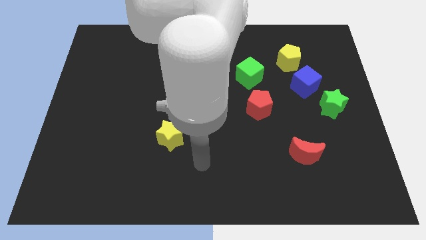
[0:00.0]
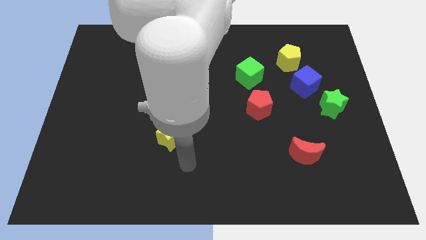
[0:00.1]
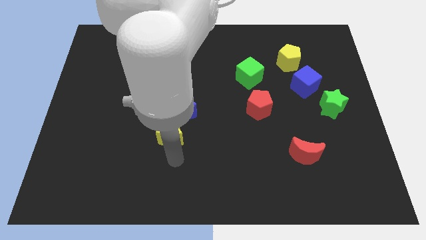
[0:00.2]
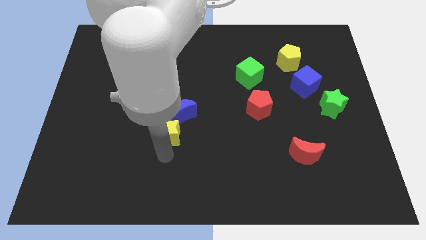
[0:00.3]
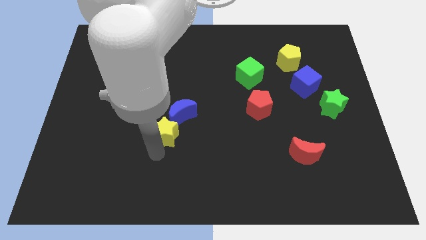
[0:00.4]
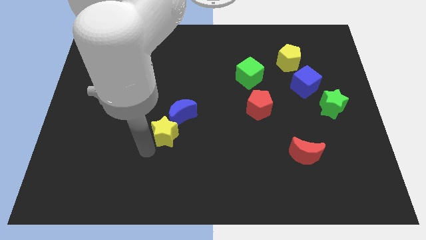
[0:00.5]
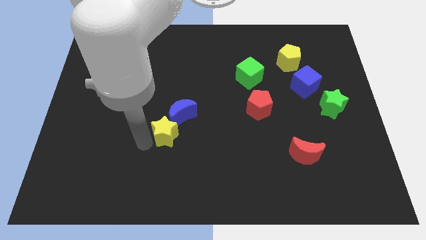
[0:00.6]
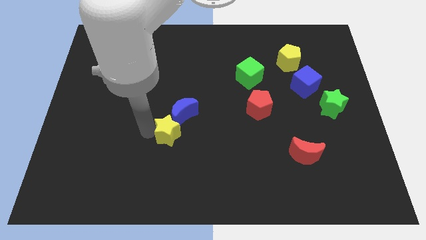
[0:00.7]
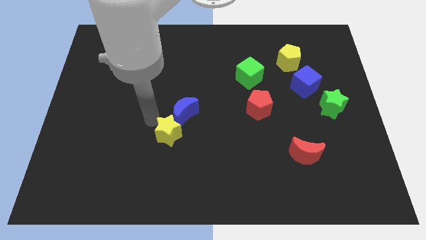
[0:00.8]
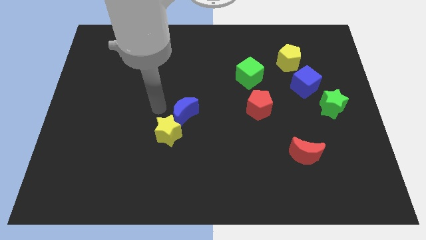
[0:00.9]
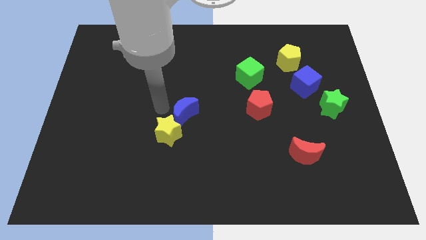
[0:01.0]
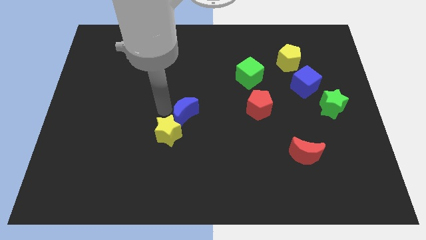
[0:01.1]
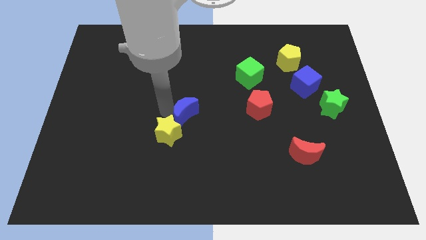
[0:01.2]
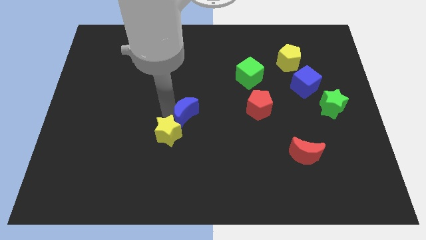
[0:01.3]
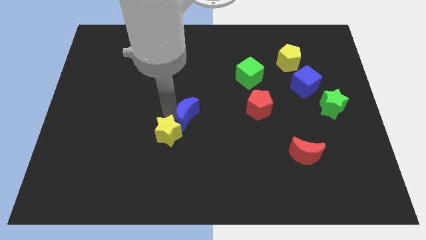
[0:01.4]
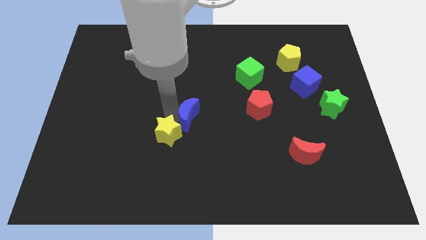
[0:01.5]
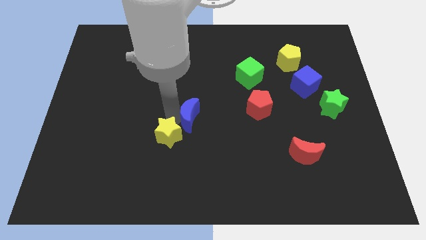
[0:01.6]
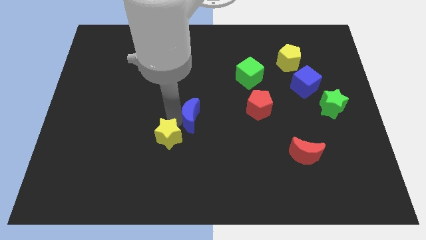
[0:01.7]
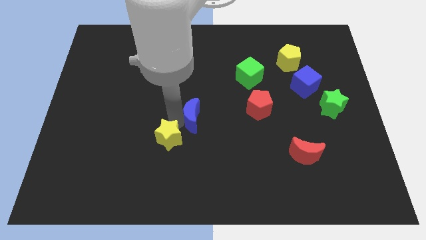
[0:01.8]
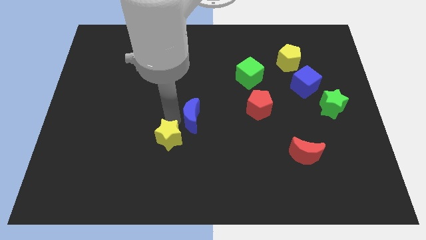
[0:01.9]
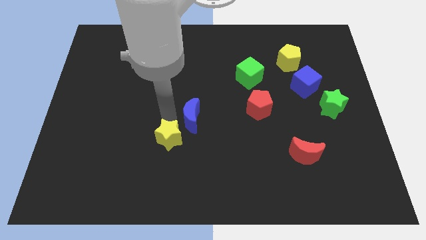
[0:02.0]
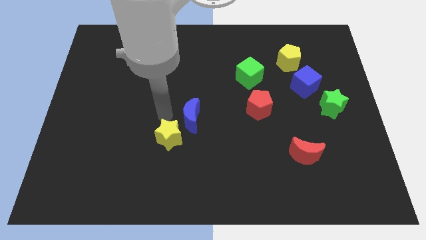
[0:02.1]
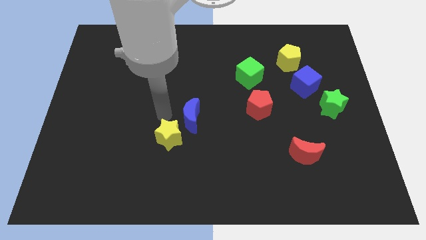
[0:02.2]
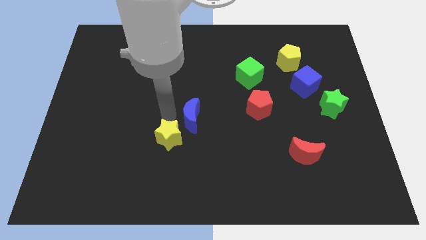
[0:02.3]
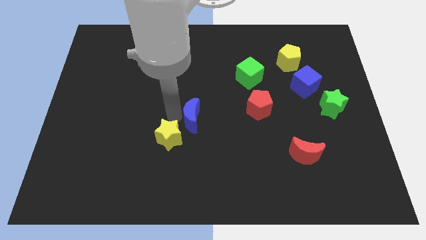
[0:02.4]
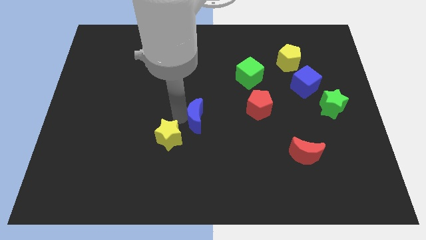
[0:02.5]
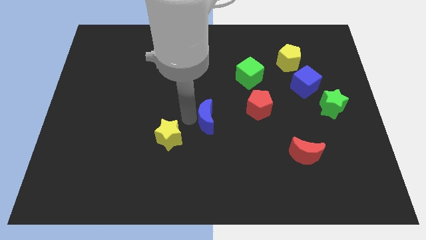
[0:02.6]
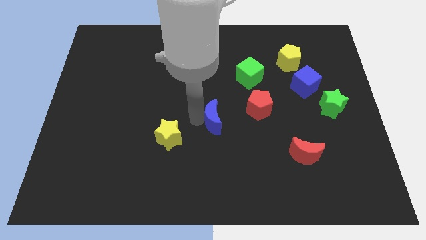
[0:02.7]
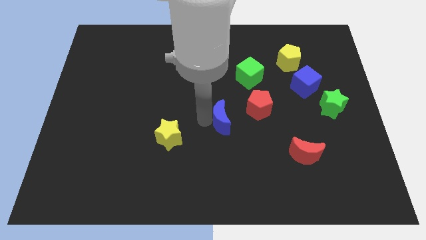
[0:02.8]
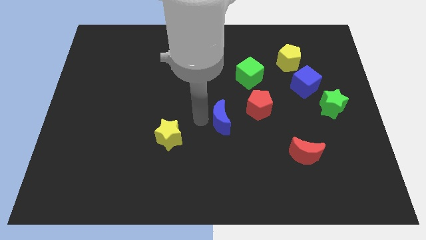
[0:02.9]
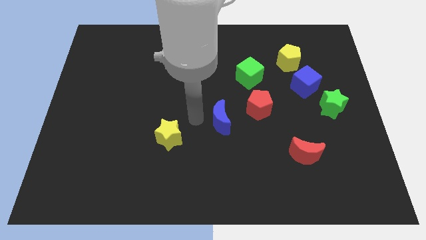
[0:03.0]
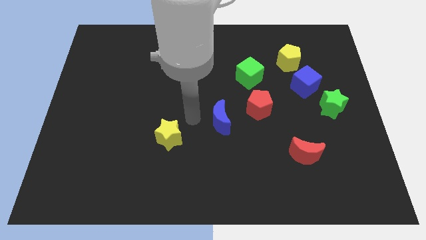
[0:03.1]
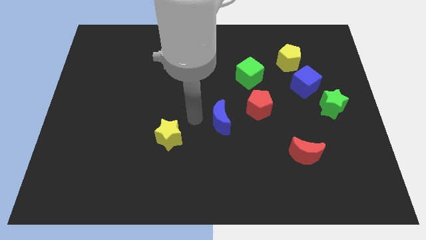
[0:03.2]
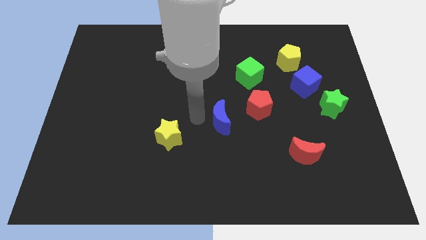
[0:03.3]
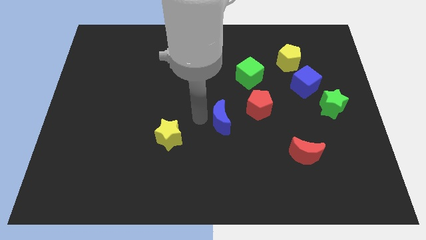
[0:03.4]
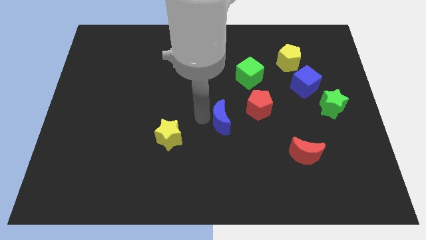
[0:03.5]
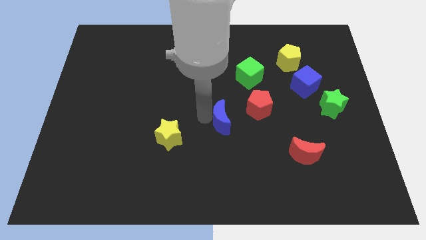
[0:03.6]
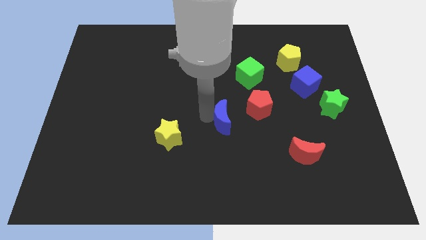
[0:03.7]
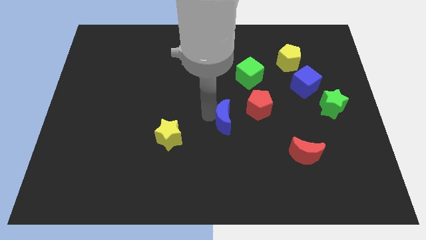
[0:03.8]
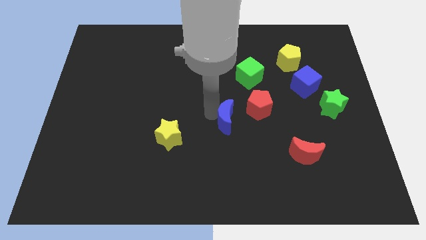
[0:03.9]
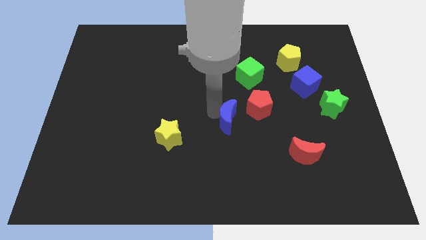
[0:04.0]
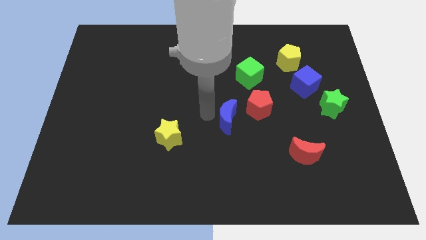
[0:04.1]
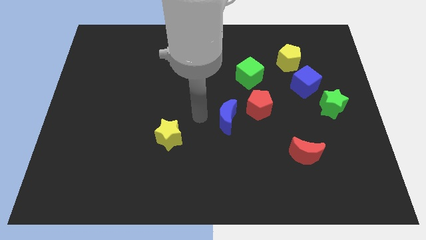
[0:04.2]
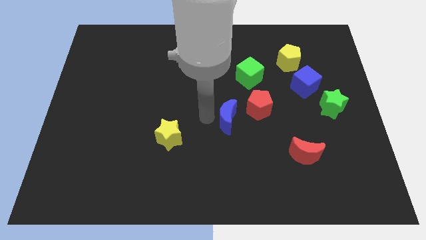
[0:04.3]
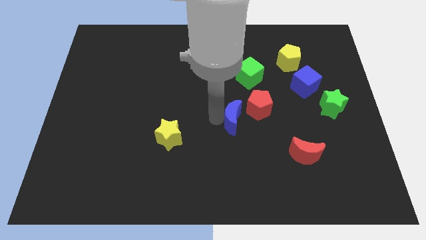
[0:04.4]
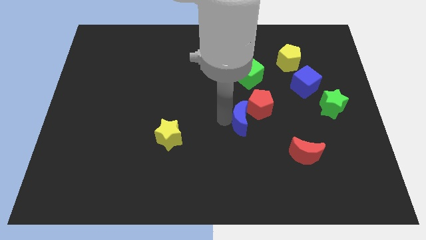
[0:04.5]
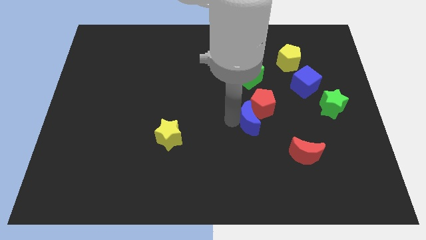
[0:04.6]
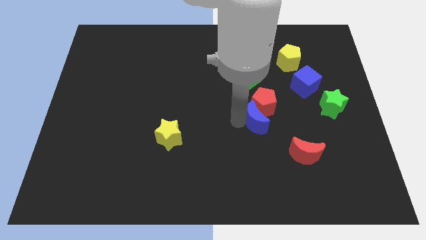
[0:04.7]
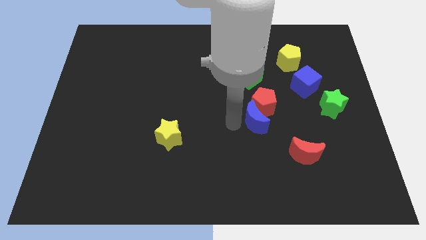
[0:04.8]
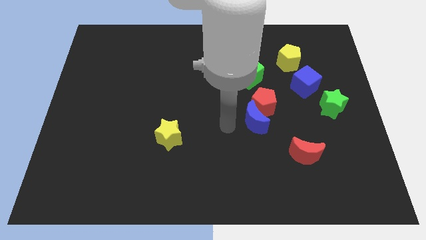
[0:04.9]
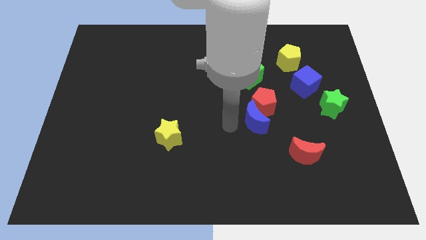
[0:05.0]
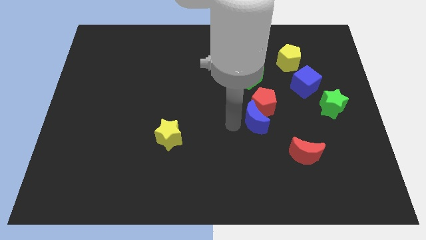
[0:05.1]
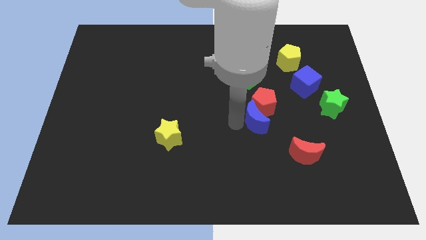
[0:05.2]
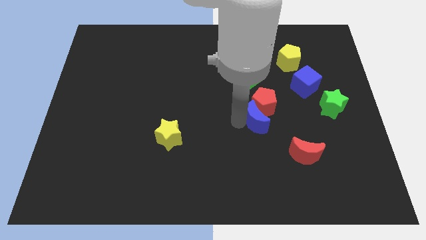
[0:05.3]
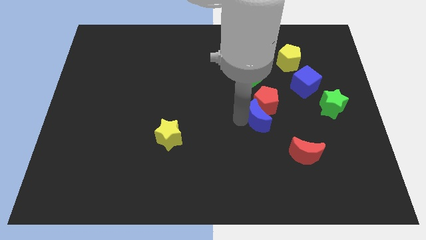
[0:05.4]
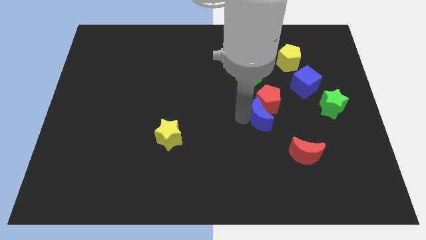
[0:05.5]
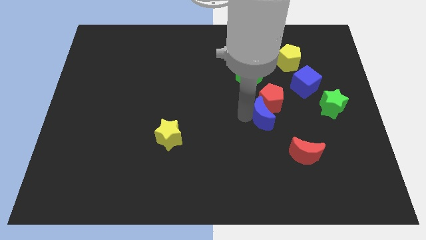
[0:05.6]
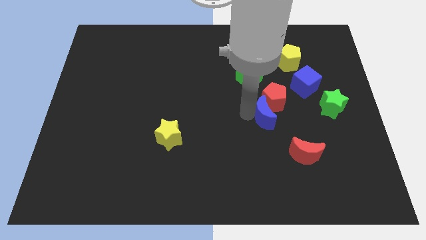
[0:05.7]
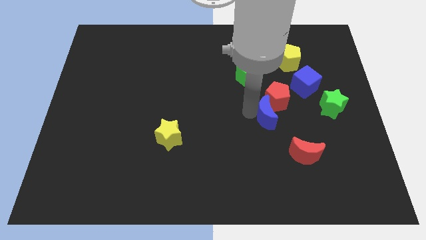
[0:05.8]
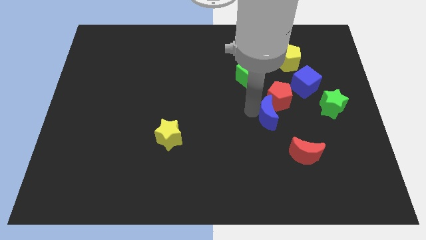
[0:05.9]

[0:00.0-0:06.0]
slide the blue moon right

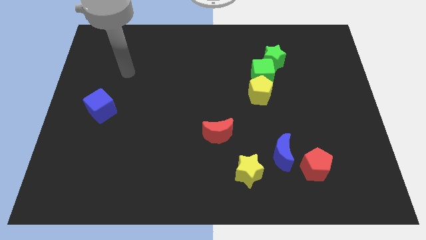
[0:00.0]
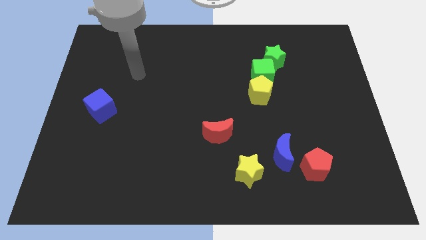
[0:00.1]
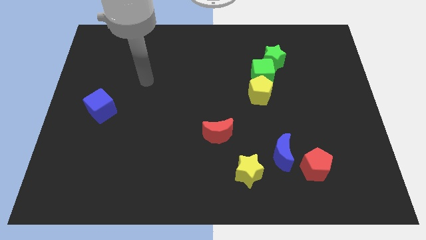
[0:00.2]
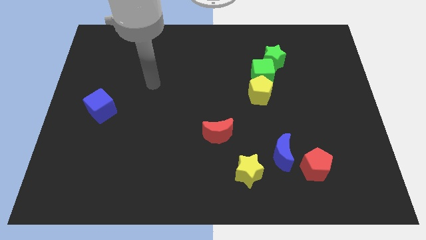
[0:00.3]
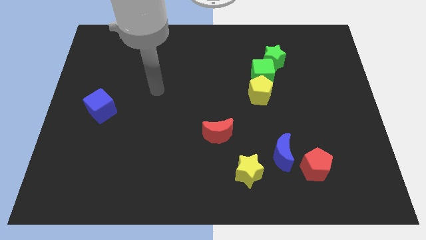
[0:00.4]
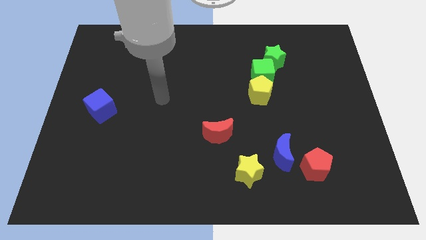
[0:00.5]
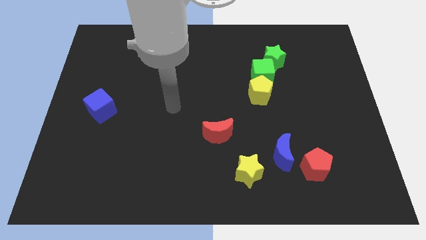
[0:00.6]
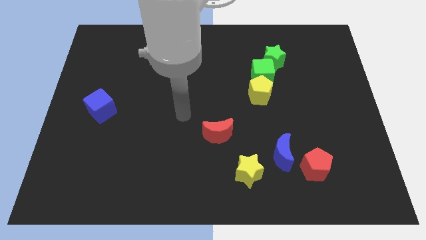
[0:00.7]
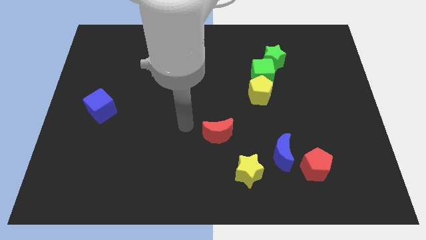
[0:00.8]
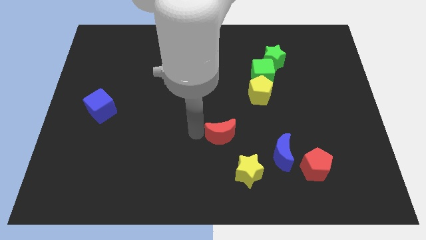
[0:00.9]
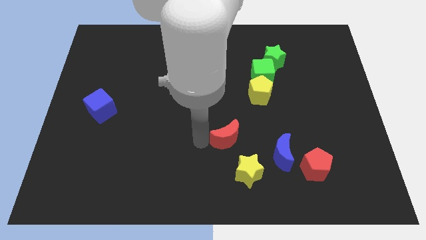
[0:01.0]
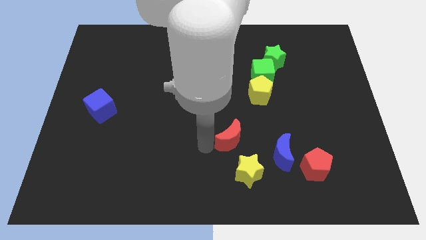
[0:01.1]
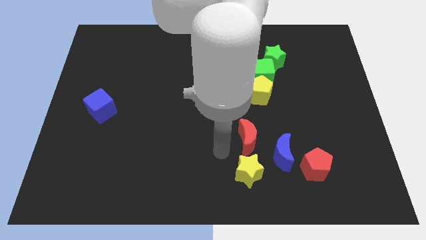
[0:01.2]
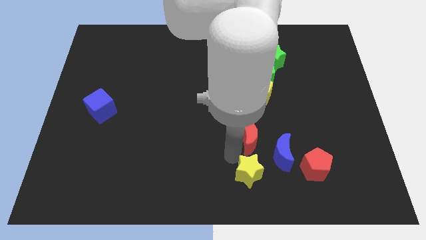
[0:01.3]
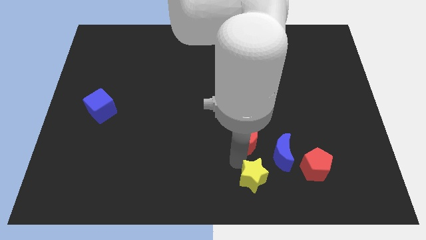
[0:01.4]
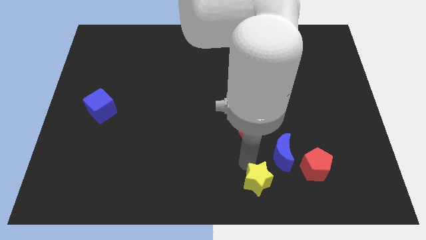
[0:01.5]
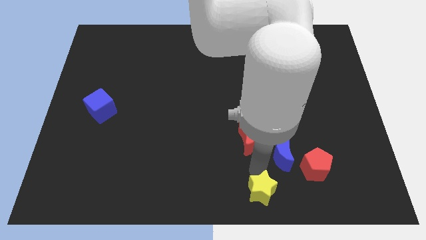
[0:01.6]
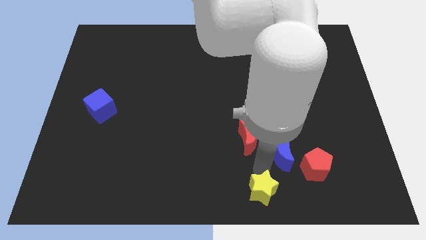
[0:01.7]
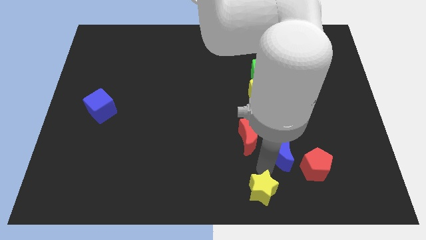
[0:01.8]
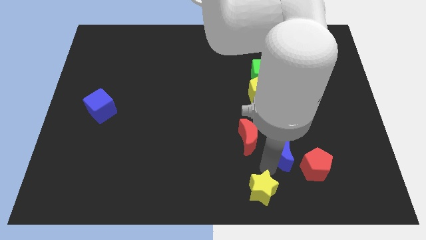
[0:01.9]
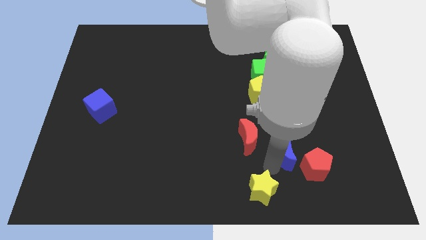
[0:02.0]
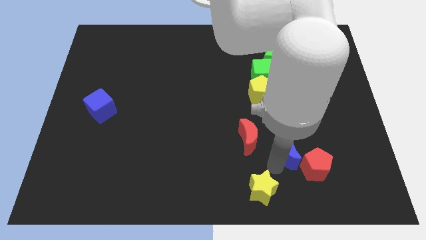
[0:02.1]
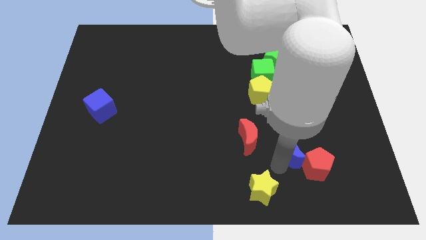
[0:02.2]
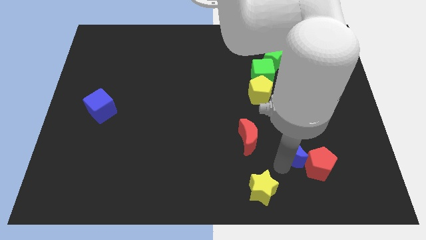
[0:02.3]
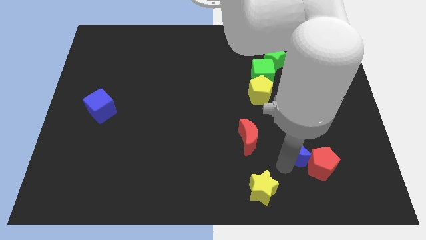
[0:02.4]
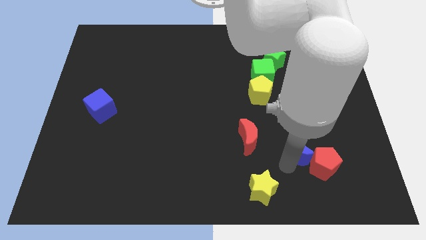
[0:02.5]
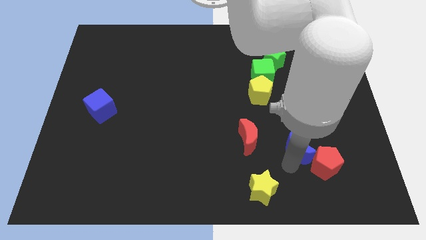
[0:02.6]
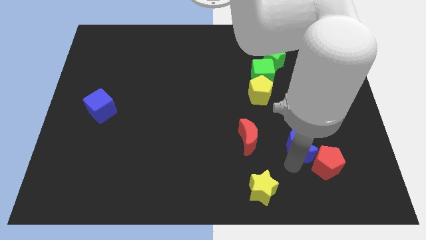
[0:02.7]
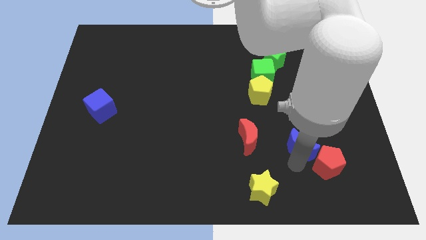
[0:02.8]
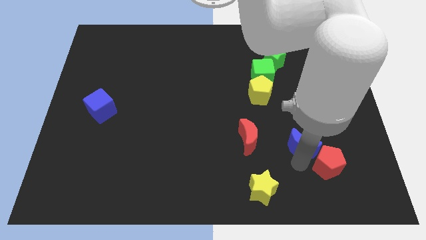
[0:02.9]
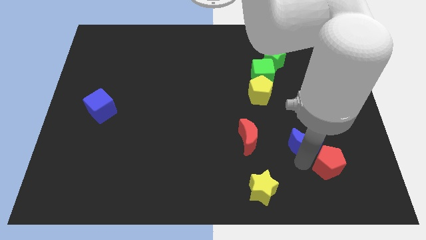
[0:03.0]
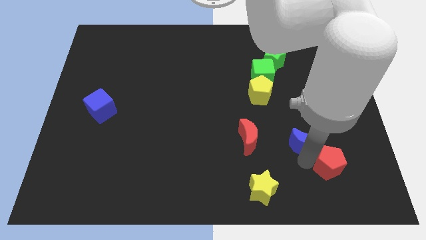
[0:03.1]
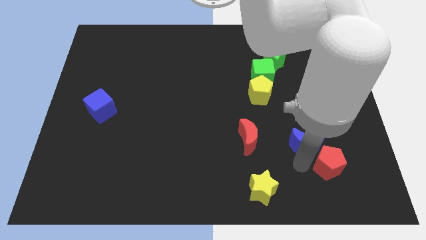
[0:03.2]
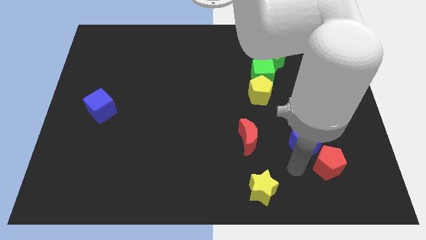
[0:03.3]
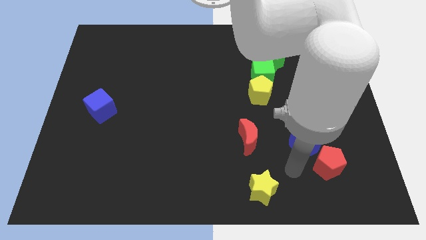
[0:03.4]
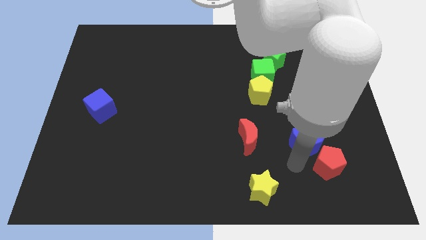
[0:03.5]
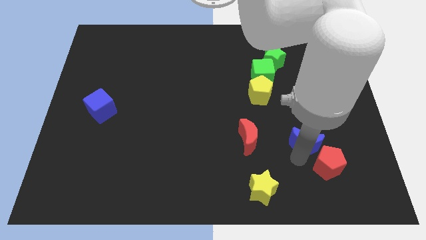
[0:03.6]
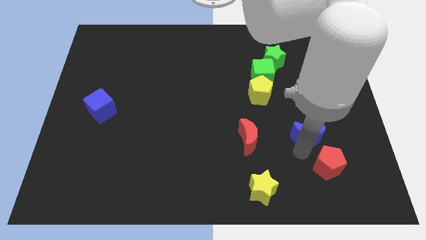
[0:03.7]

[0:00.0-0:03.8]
slide the blue moon a little bit upwards and to the right
